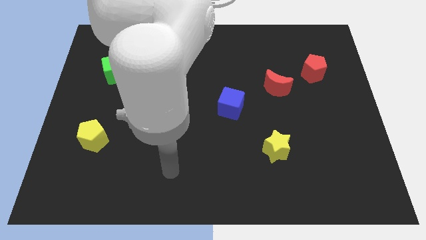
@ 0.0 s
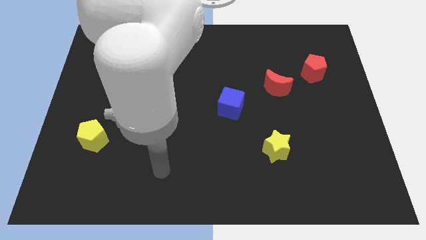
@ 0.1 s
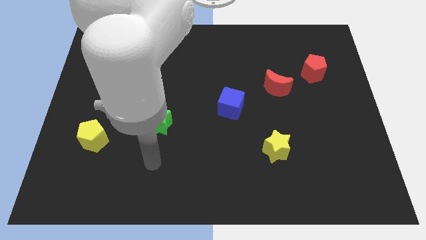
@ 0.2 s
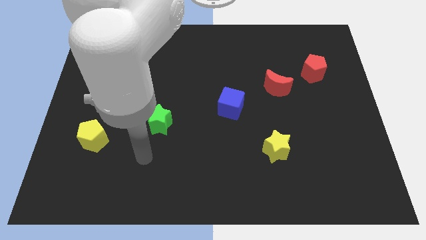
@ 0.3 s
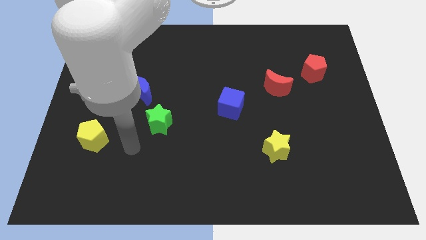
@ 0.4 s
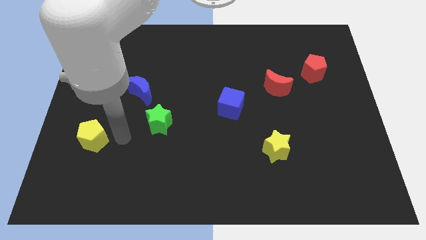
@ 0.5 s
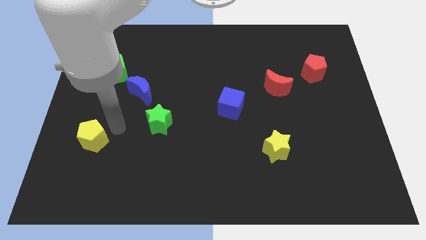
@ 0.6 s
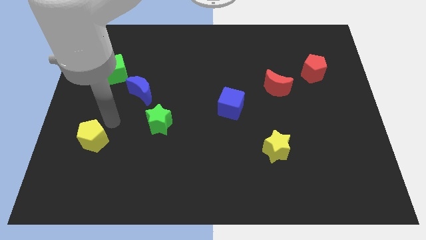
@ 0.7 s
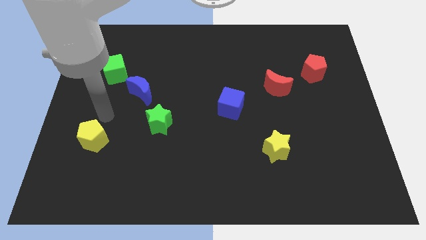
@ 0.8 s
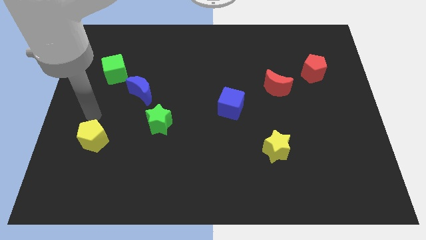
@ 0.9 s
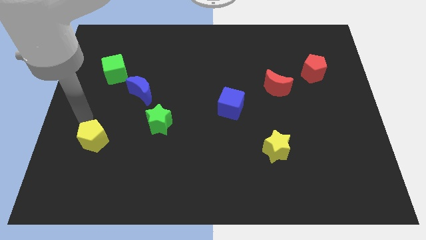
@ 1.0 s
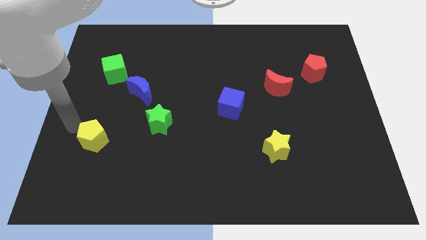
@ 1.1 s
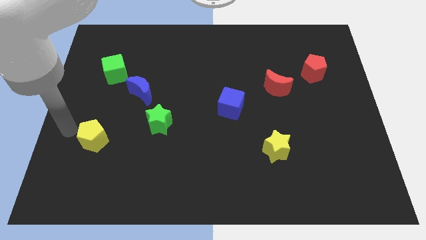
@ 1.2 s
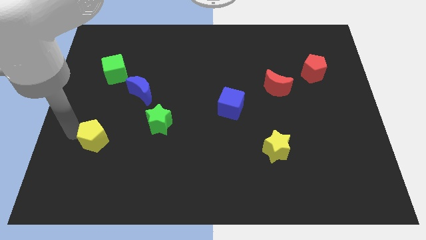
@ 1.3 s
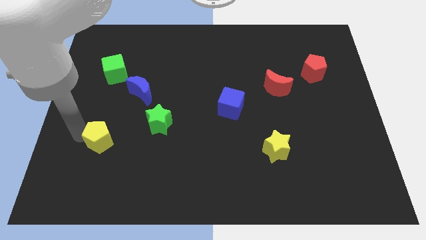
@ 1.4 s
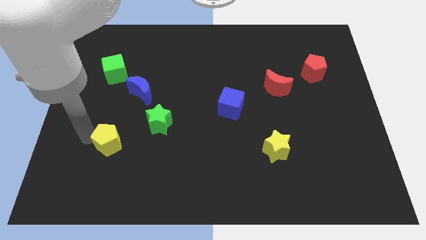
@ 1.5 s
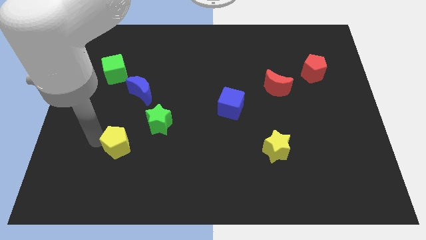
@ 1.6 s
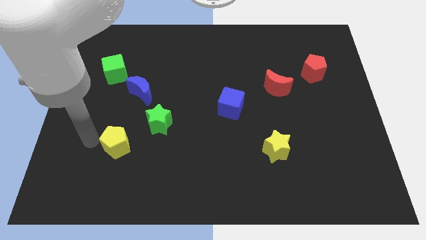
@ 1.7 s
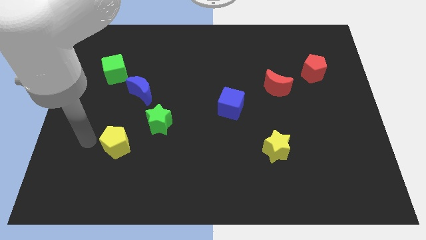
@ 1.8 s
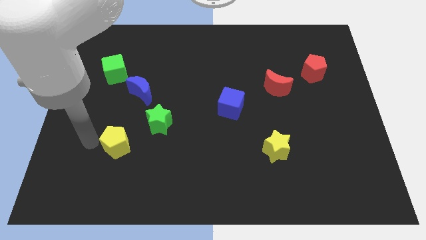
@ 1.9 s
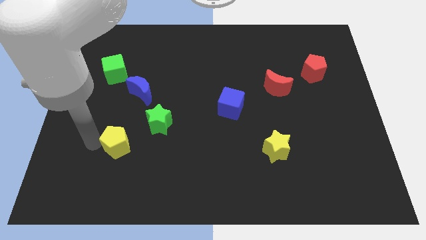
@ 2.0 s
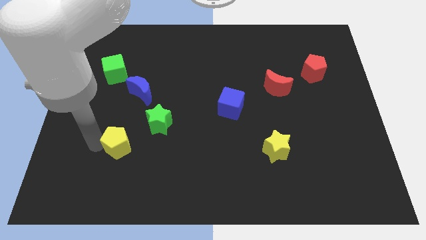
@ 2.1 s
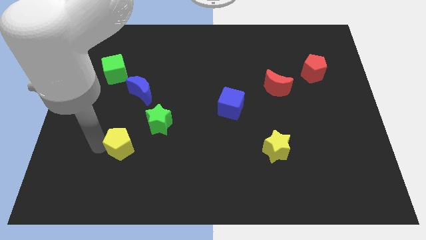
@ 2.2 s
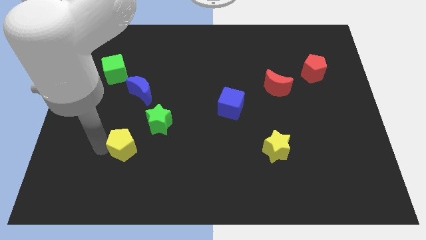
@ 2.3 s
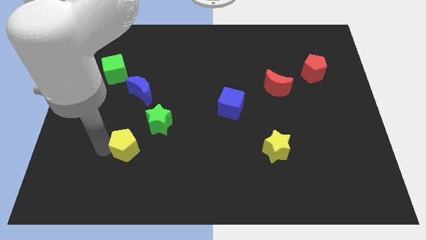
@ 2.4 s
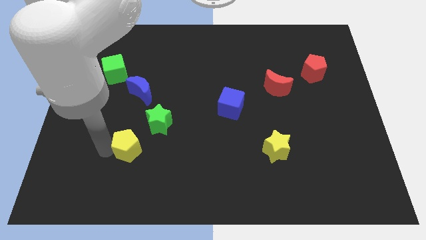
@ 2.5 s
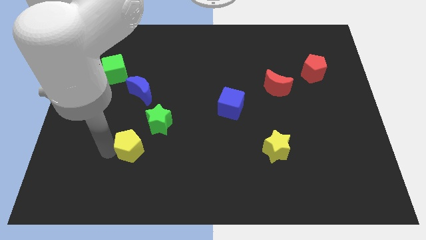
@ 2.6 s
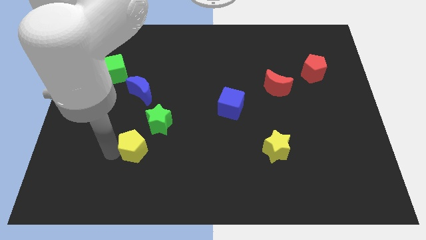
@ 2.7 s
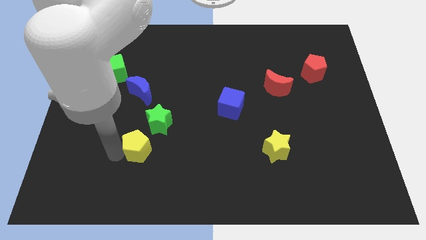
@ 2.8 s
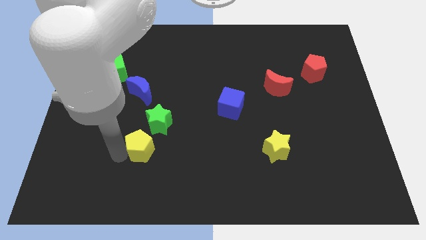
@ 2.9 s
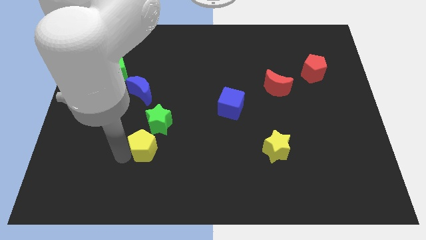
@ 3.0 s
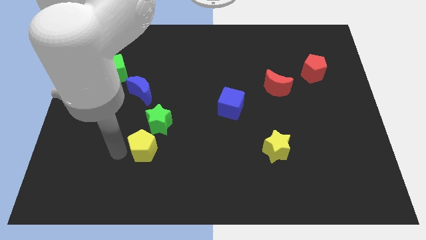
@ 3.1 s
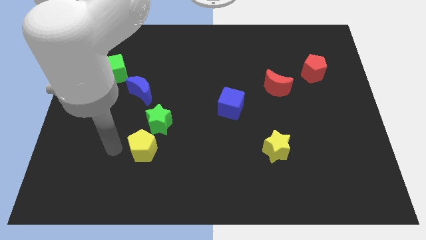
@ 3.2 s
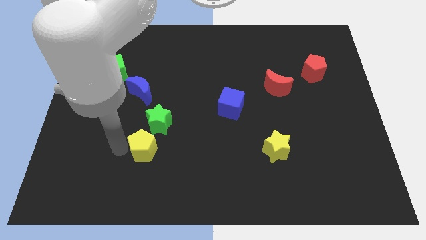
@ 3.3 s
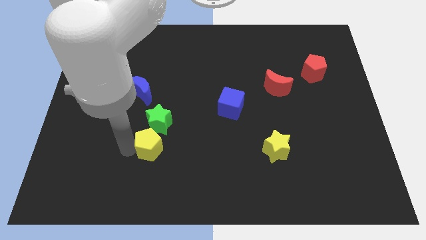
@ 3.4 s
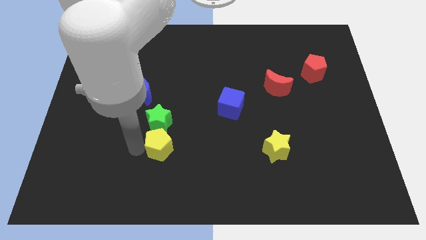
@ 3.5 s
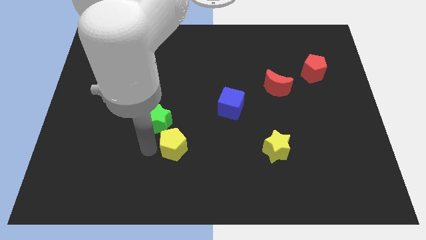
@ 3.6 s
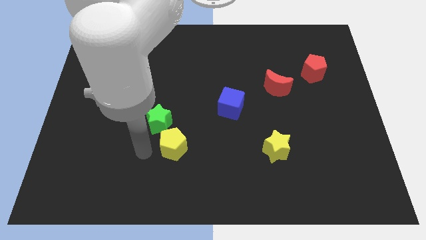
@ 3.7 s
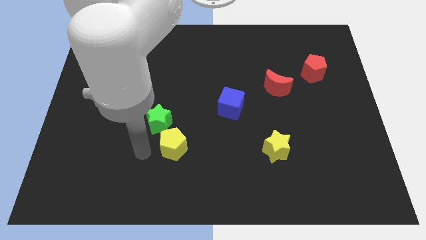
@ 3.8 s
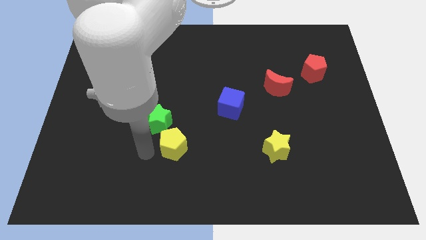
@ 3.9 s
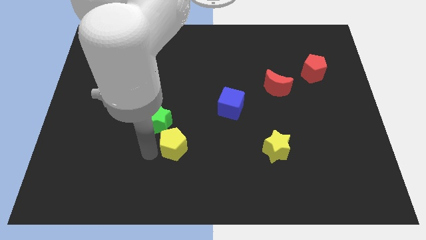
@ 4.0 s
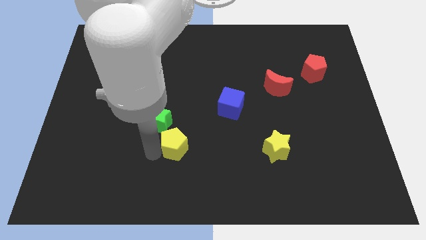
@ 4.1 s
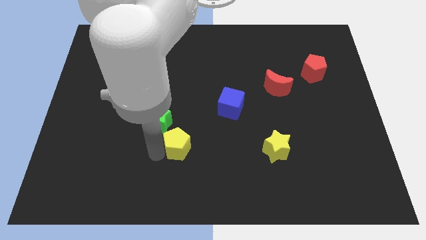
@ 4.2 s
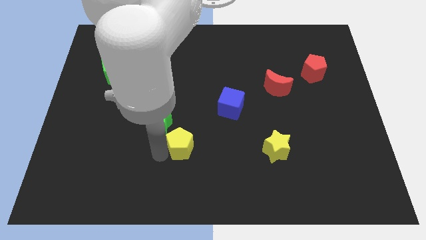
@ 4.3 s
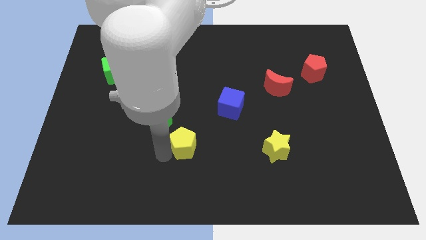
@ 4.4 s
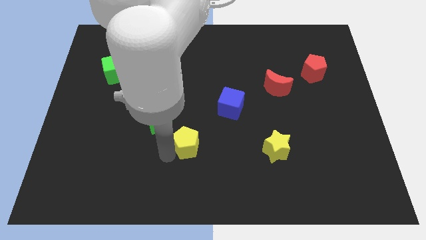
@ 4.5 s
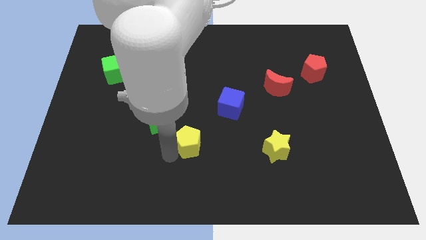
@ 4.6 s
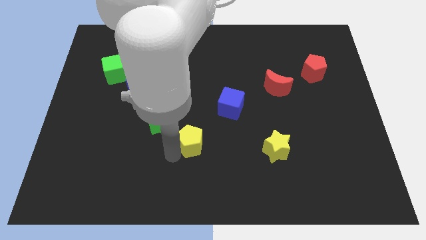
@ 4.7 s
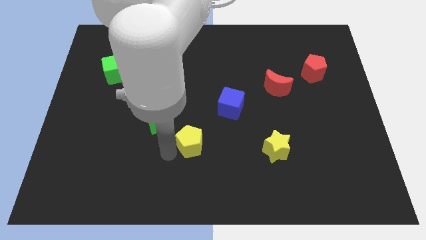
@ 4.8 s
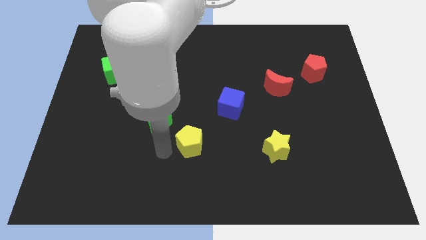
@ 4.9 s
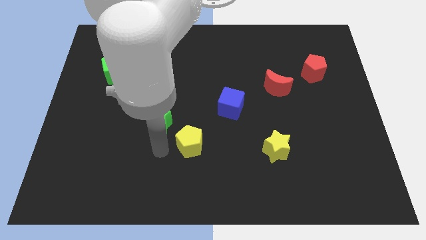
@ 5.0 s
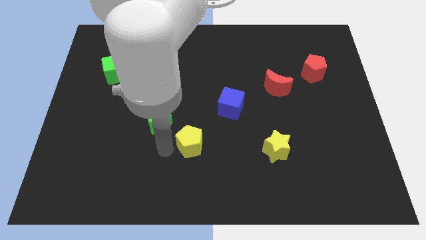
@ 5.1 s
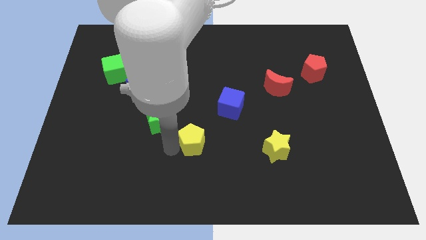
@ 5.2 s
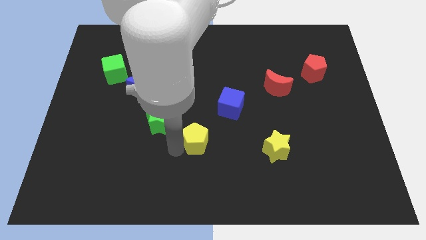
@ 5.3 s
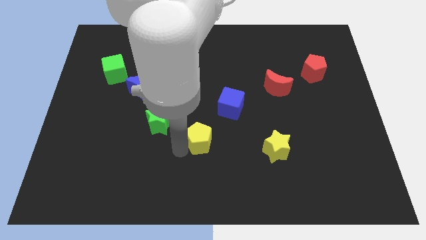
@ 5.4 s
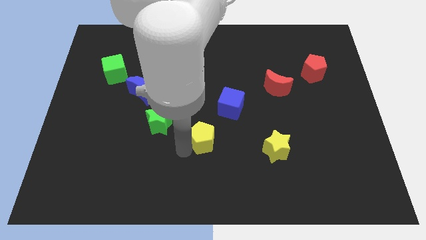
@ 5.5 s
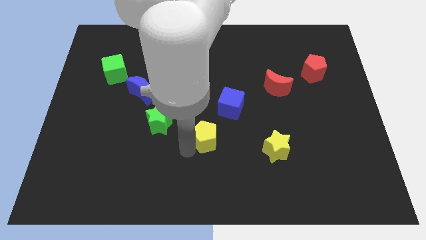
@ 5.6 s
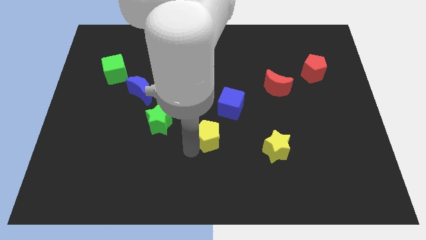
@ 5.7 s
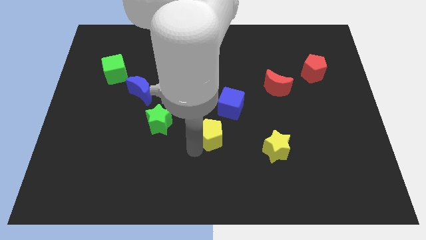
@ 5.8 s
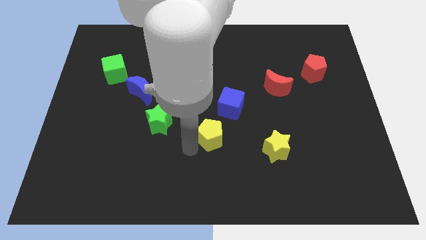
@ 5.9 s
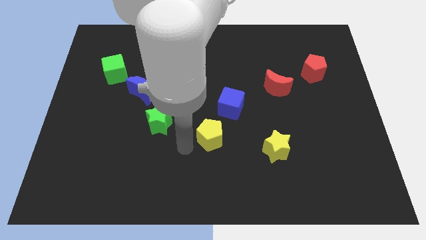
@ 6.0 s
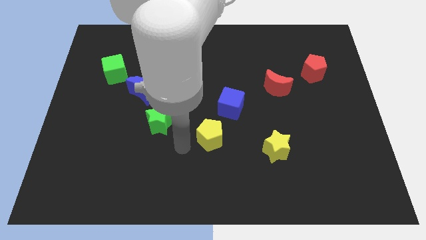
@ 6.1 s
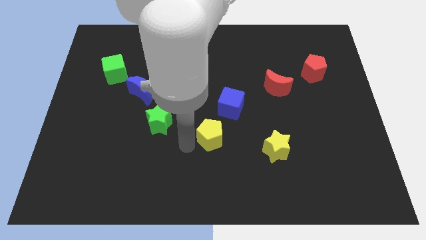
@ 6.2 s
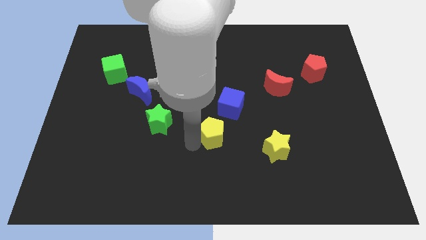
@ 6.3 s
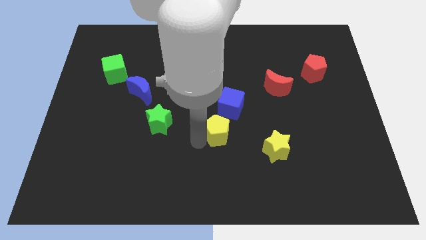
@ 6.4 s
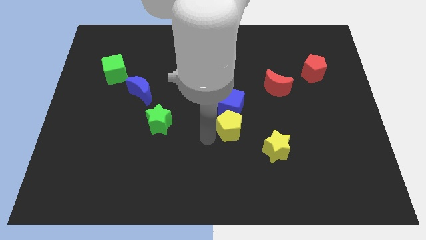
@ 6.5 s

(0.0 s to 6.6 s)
push the yellow pentagon diagonally down and to the right of the blue cube
